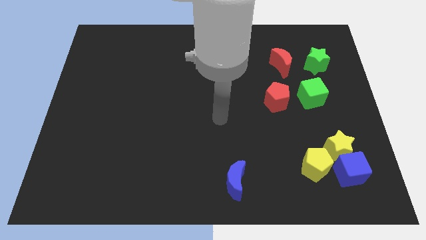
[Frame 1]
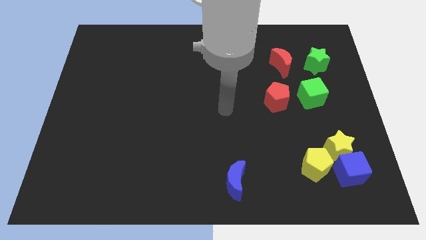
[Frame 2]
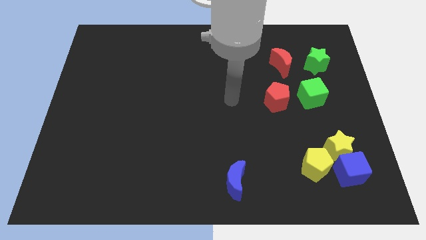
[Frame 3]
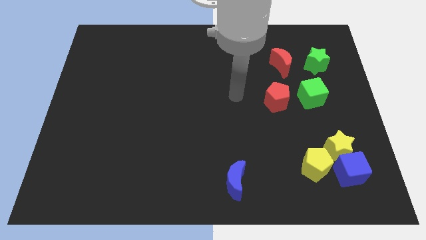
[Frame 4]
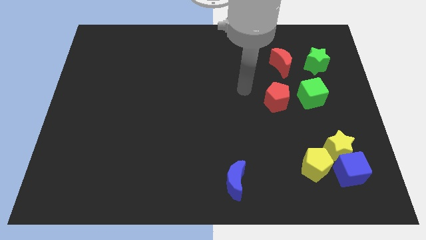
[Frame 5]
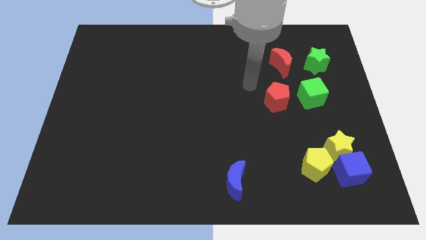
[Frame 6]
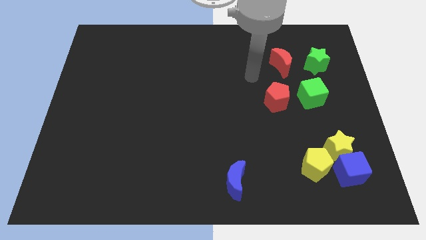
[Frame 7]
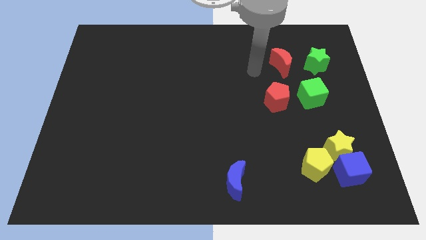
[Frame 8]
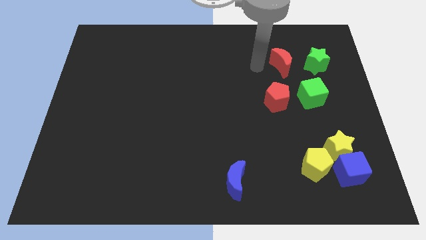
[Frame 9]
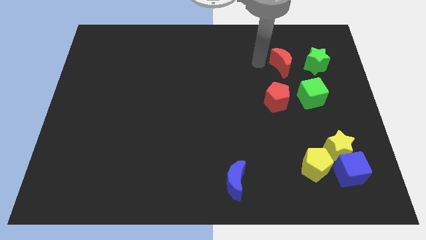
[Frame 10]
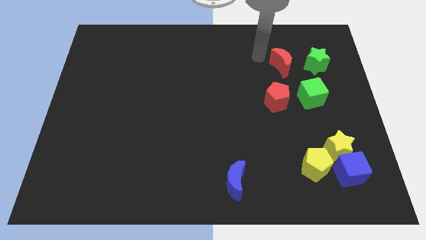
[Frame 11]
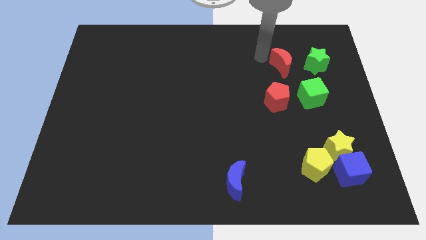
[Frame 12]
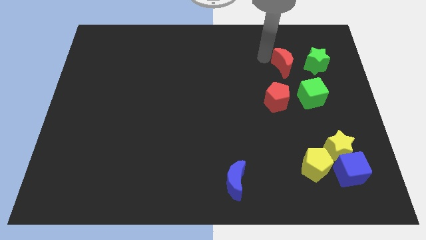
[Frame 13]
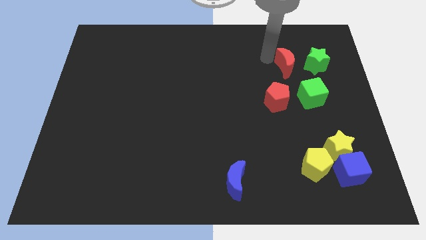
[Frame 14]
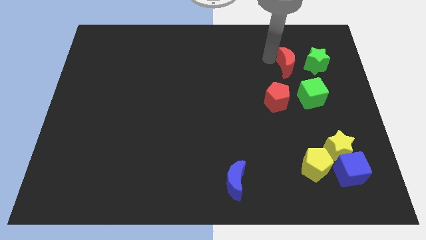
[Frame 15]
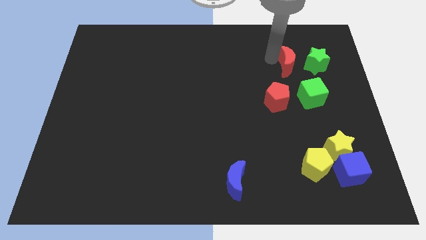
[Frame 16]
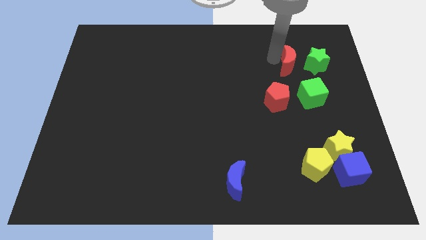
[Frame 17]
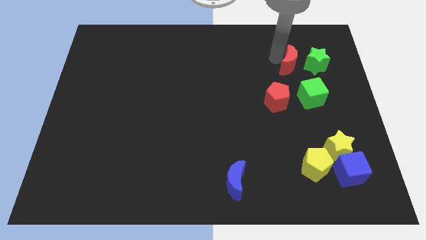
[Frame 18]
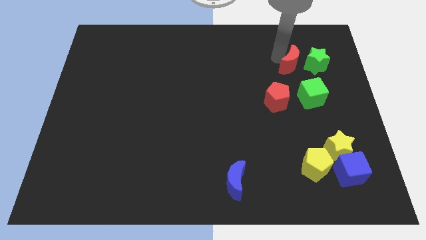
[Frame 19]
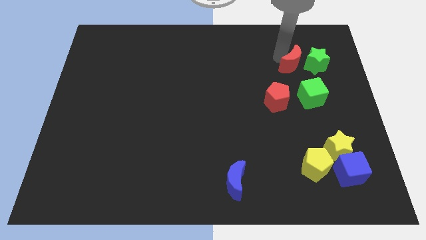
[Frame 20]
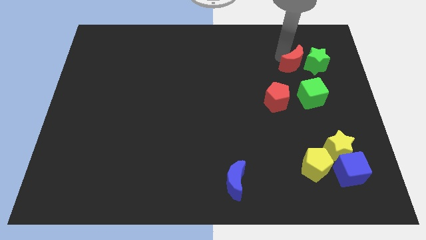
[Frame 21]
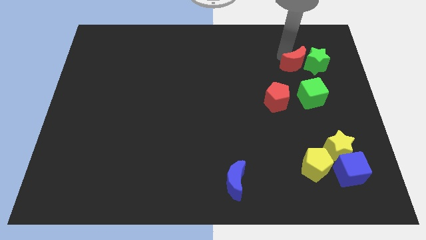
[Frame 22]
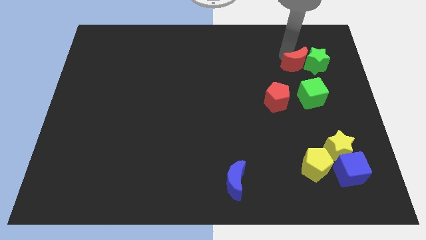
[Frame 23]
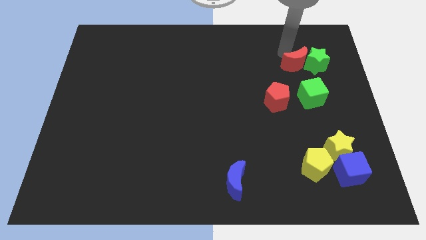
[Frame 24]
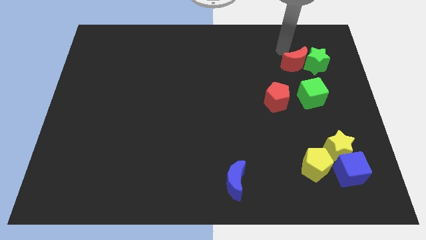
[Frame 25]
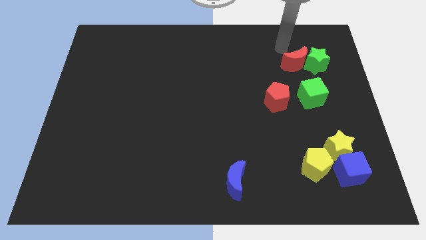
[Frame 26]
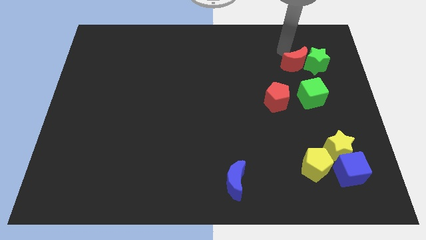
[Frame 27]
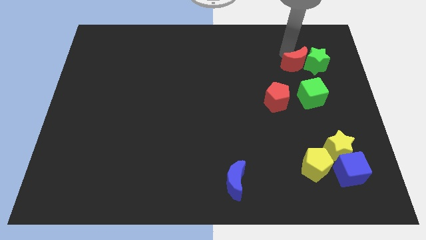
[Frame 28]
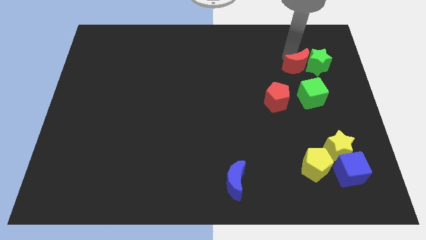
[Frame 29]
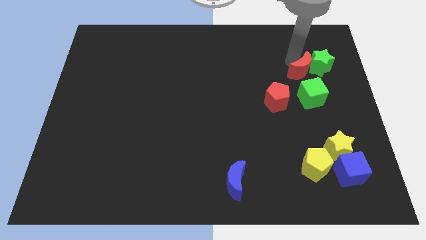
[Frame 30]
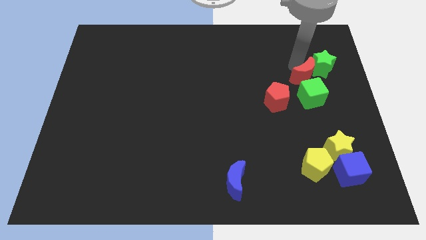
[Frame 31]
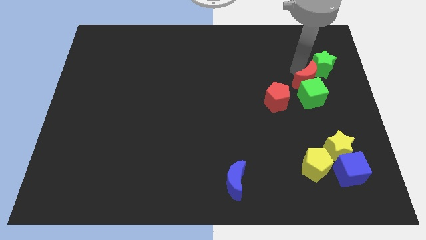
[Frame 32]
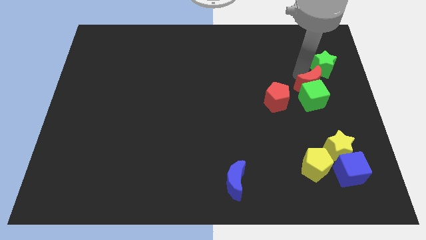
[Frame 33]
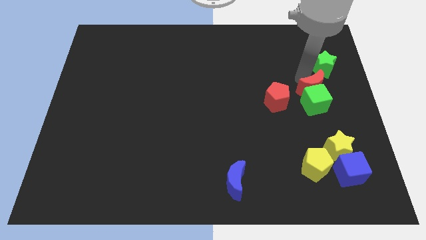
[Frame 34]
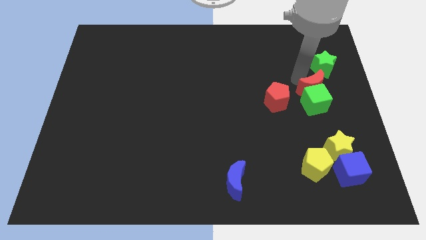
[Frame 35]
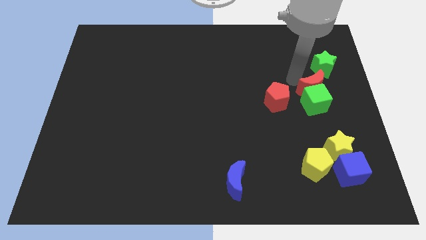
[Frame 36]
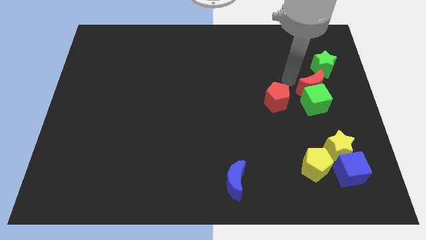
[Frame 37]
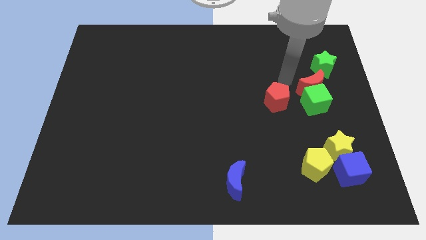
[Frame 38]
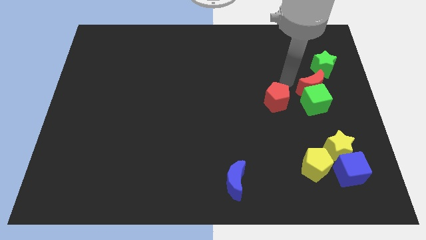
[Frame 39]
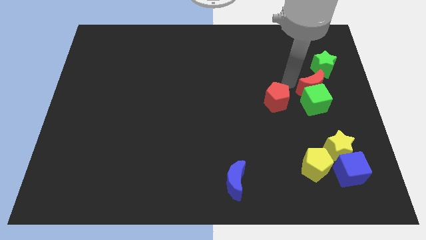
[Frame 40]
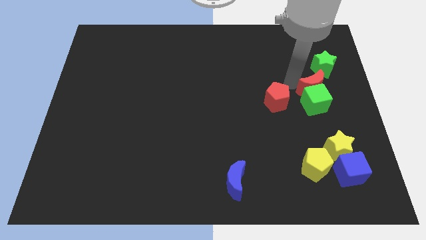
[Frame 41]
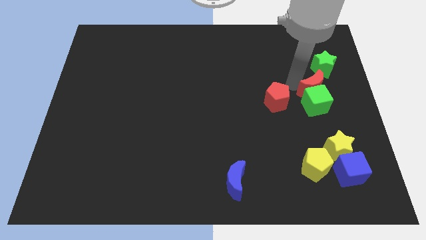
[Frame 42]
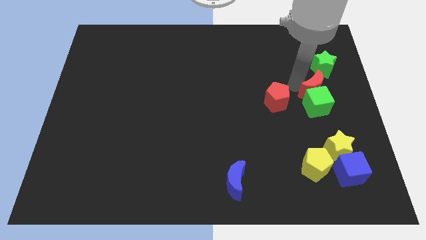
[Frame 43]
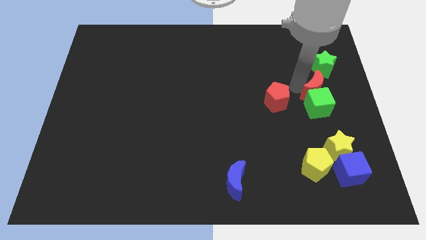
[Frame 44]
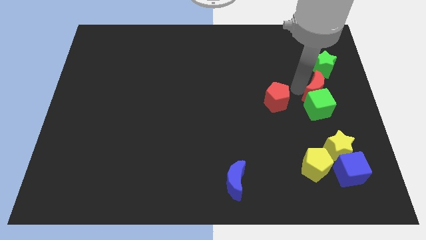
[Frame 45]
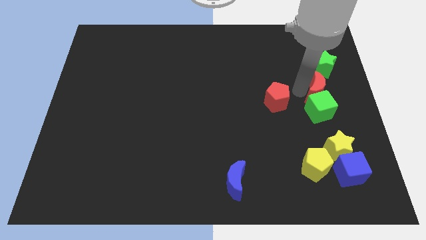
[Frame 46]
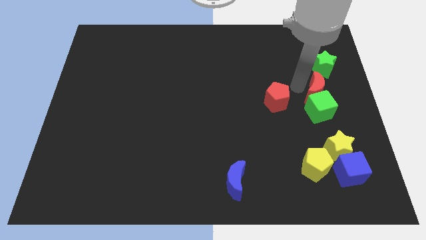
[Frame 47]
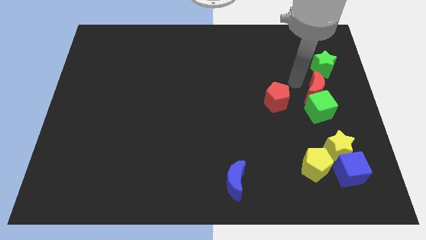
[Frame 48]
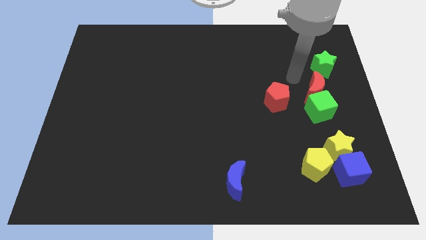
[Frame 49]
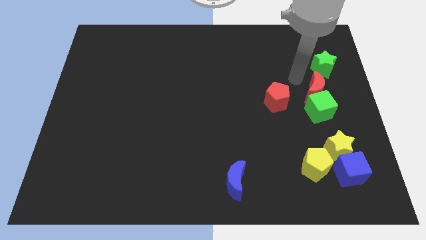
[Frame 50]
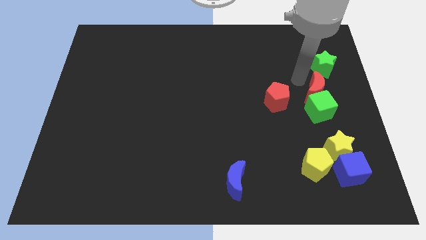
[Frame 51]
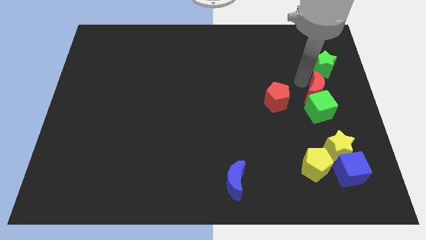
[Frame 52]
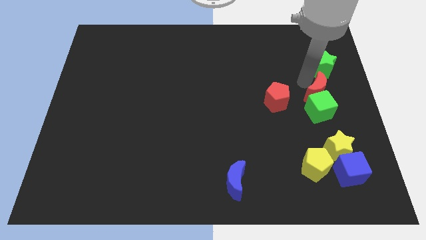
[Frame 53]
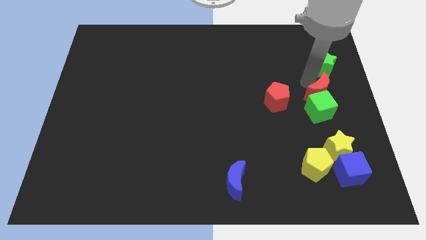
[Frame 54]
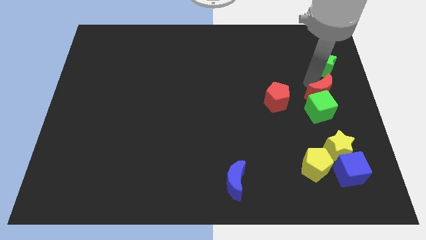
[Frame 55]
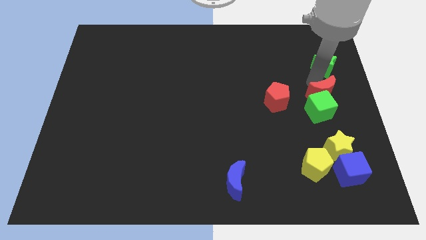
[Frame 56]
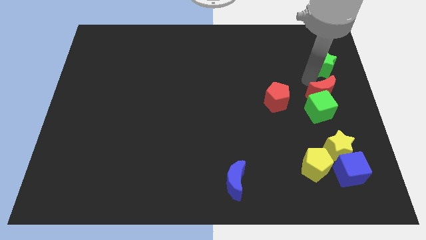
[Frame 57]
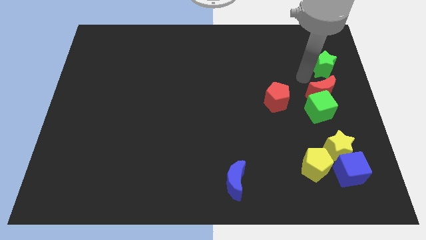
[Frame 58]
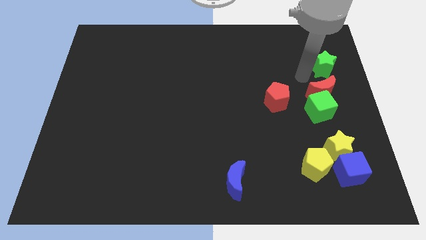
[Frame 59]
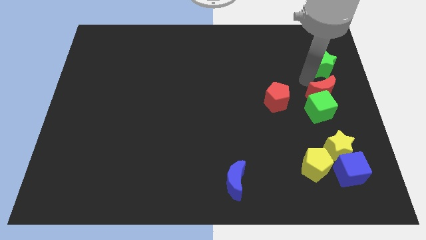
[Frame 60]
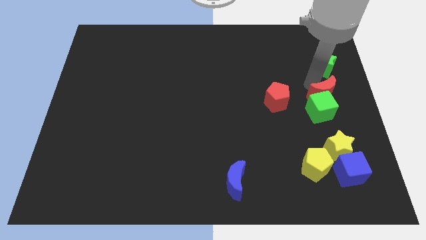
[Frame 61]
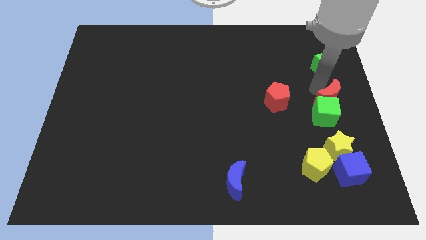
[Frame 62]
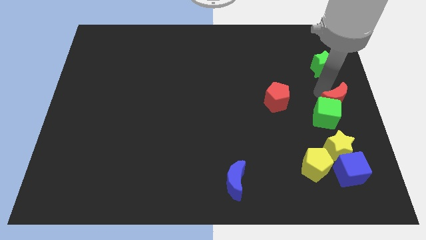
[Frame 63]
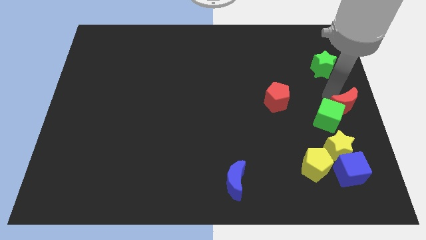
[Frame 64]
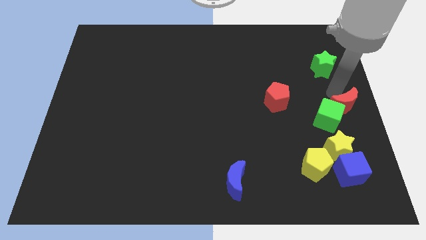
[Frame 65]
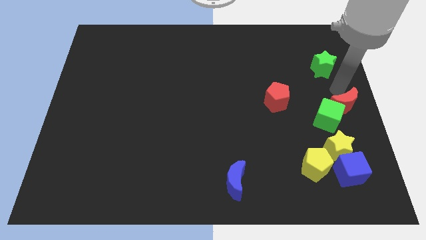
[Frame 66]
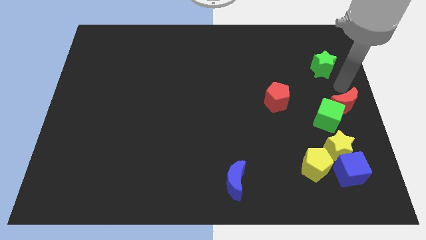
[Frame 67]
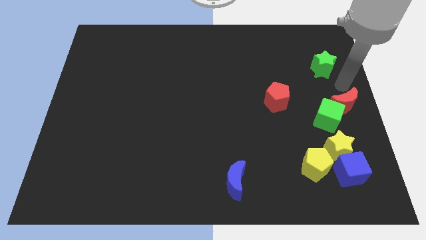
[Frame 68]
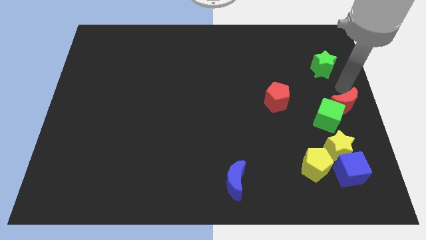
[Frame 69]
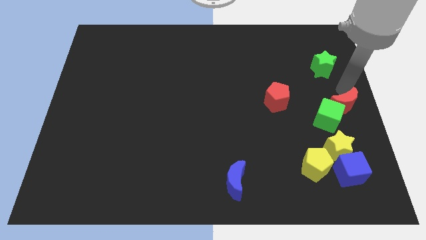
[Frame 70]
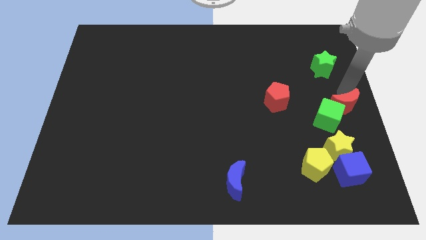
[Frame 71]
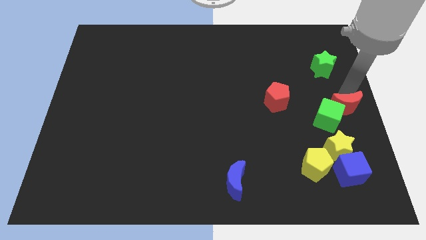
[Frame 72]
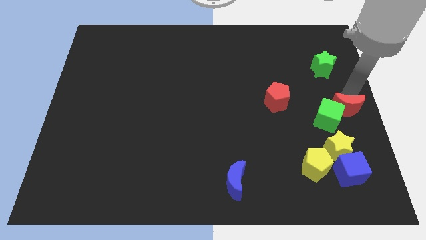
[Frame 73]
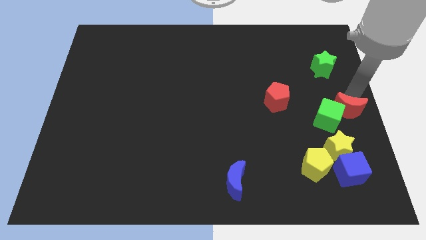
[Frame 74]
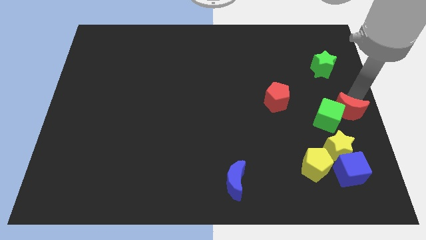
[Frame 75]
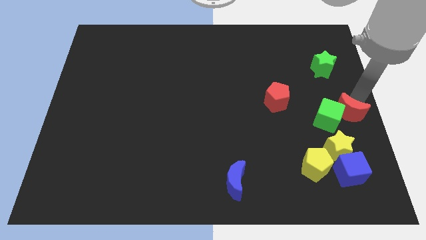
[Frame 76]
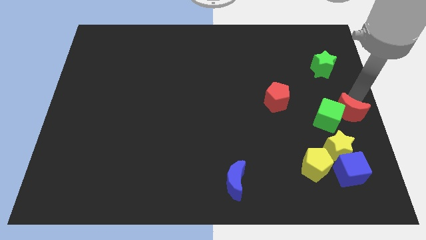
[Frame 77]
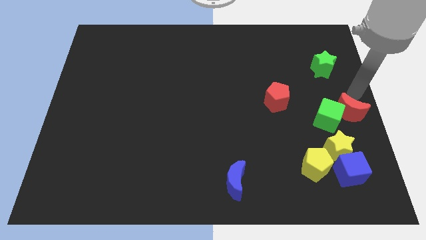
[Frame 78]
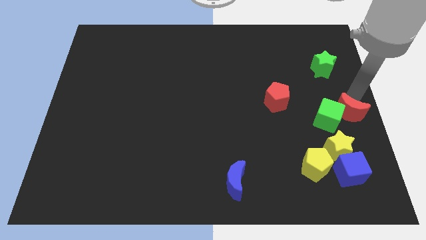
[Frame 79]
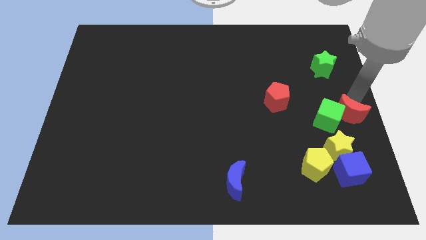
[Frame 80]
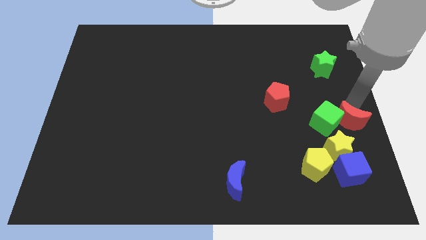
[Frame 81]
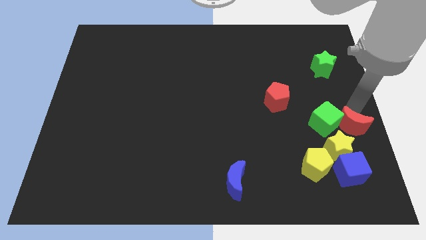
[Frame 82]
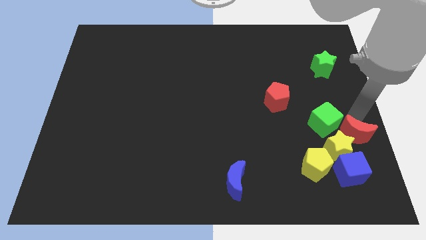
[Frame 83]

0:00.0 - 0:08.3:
put the red moon close to the yellow star
